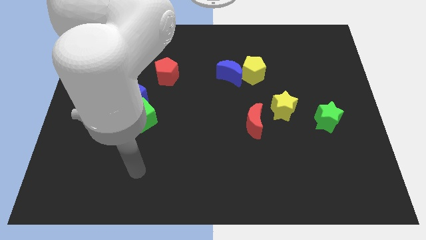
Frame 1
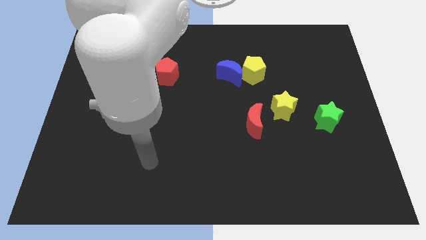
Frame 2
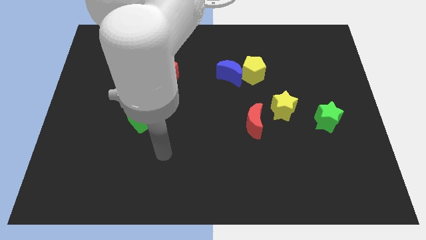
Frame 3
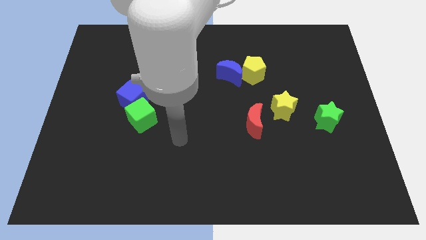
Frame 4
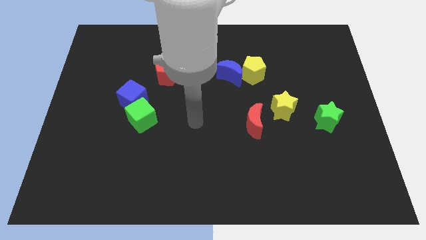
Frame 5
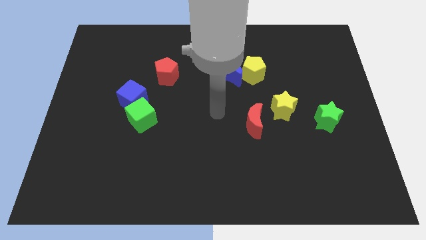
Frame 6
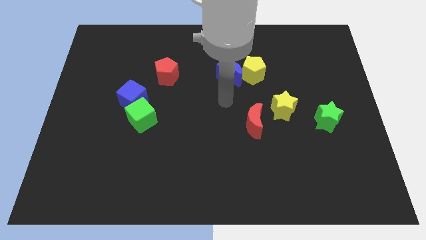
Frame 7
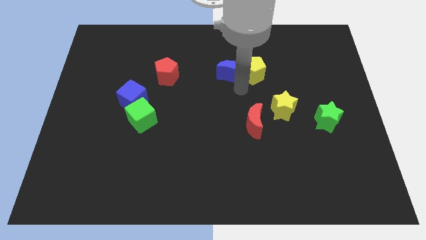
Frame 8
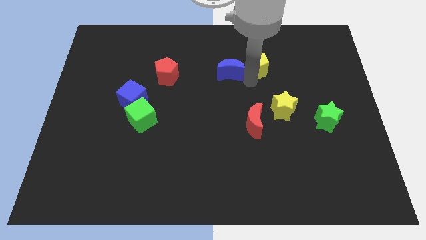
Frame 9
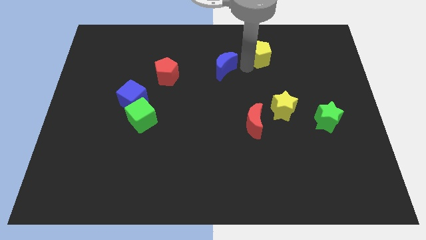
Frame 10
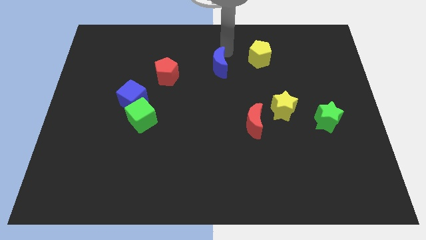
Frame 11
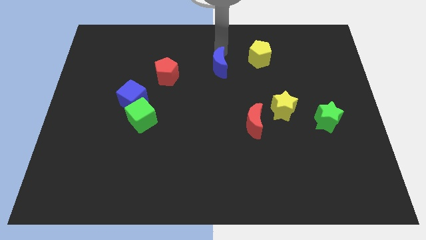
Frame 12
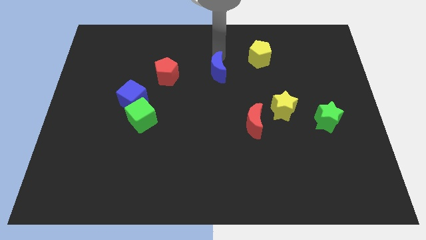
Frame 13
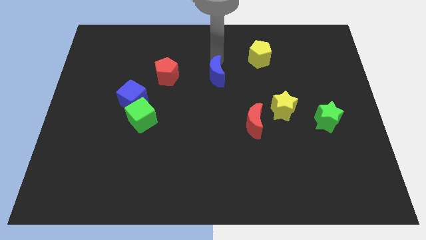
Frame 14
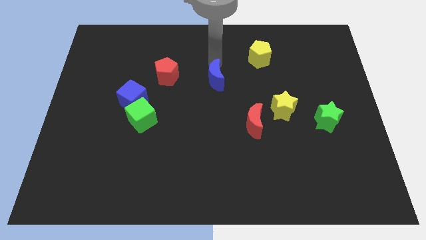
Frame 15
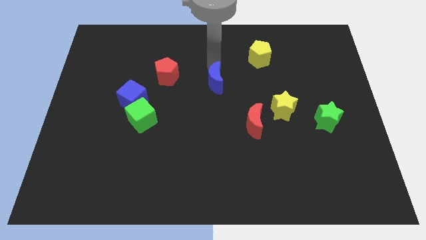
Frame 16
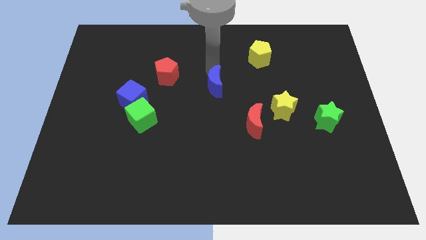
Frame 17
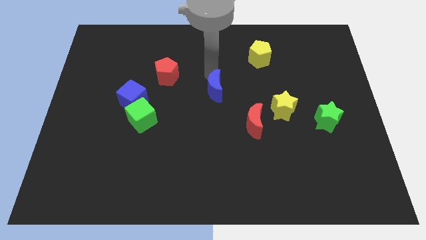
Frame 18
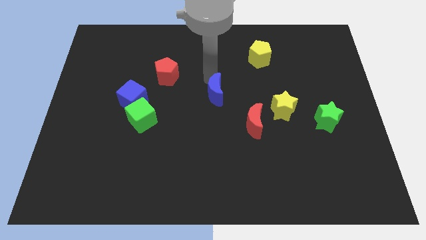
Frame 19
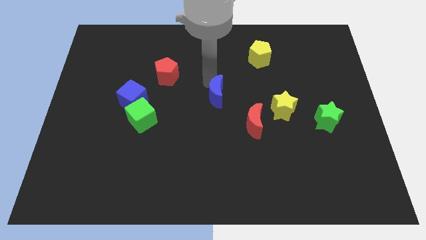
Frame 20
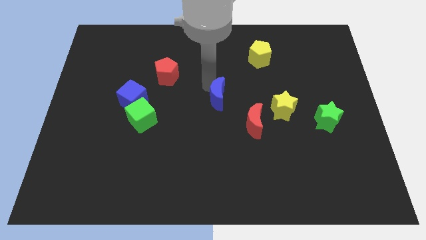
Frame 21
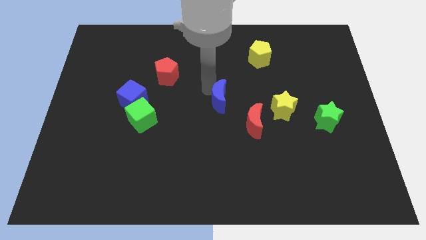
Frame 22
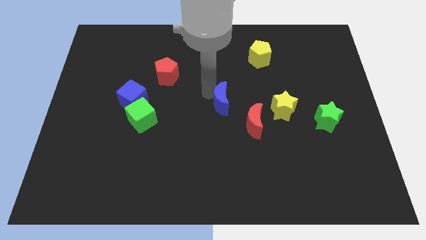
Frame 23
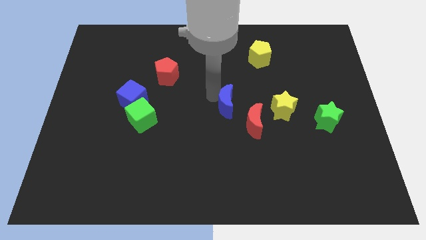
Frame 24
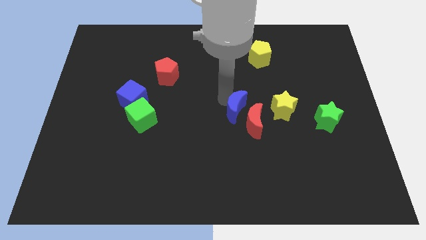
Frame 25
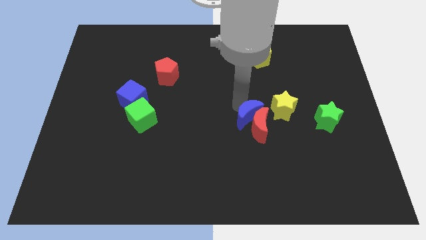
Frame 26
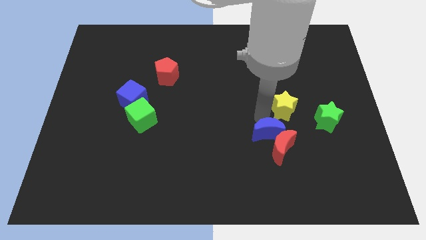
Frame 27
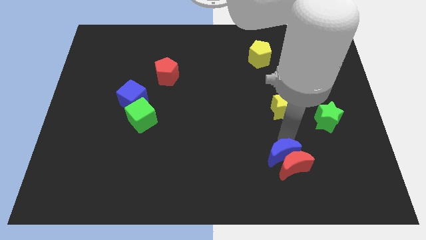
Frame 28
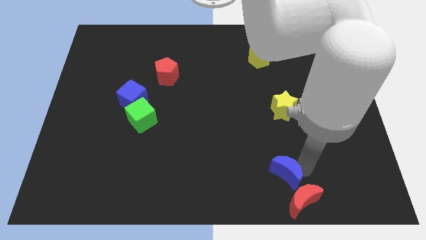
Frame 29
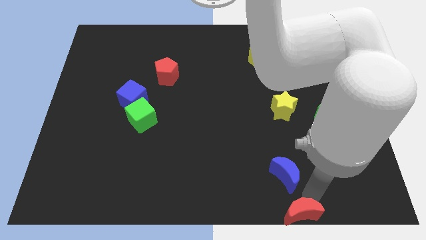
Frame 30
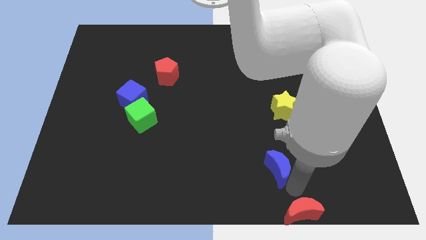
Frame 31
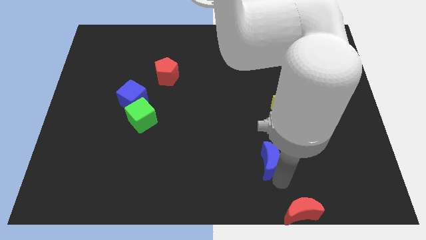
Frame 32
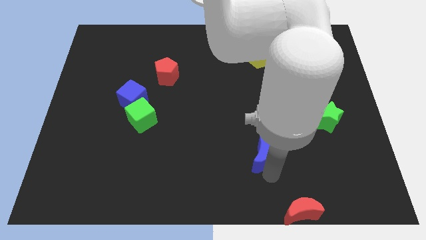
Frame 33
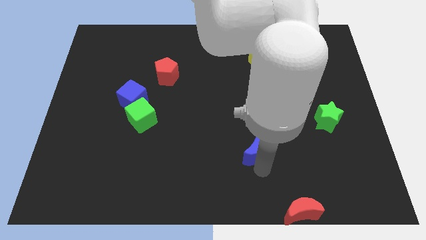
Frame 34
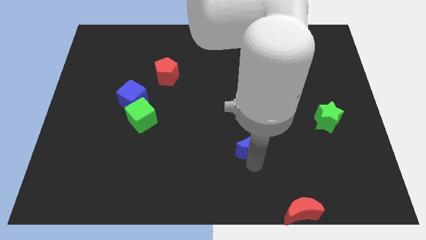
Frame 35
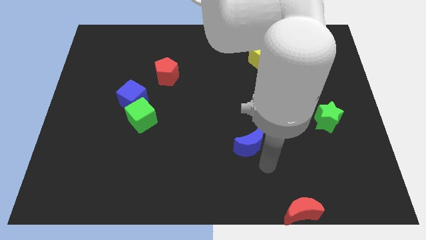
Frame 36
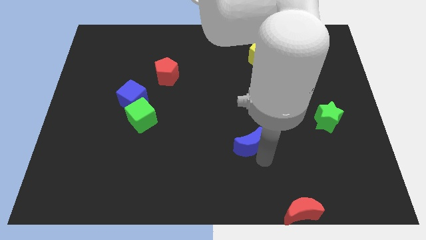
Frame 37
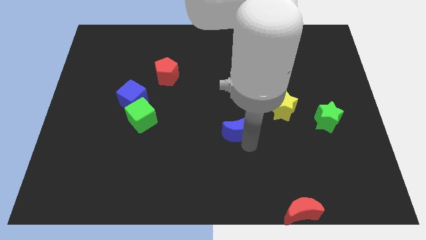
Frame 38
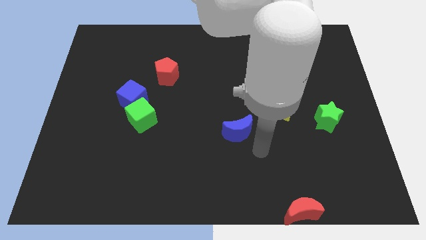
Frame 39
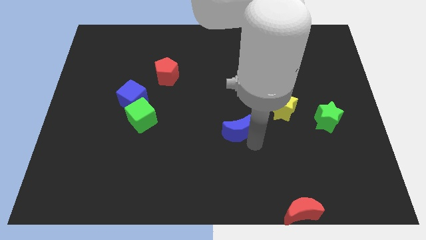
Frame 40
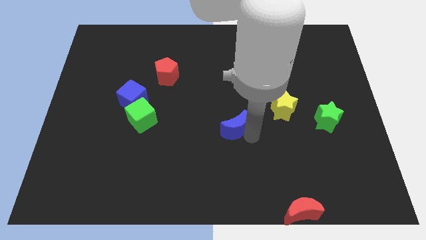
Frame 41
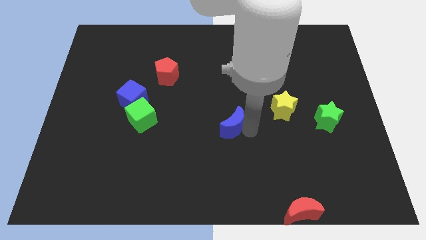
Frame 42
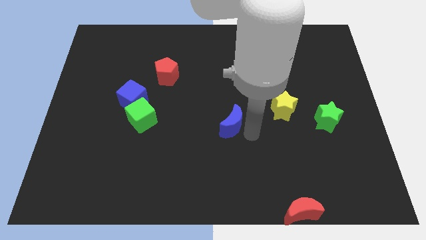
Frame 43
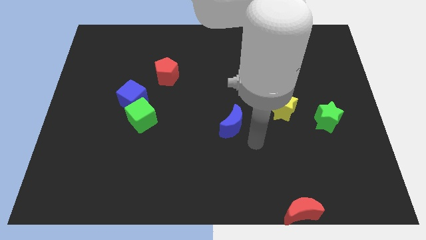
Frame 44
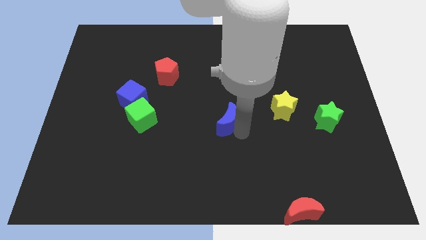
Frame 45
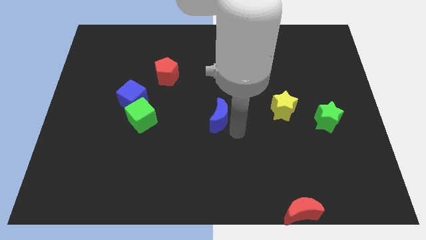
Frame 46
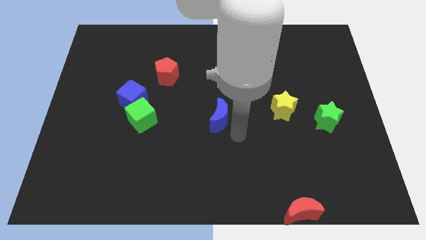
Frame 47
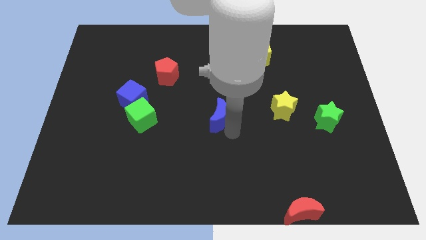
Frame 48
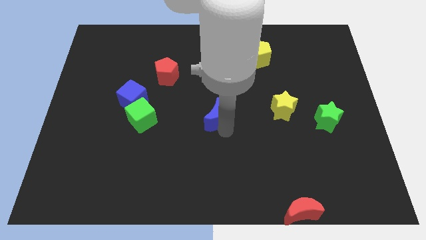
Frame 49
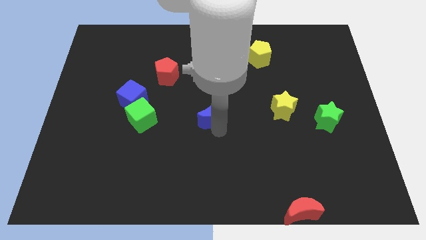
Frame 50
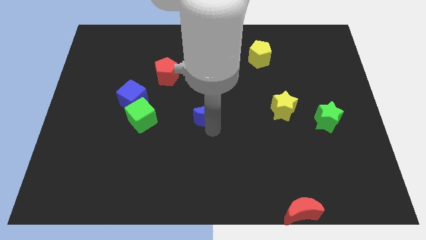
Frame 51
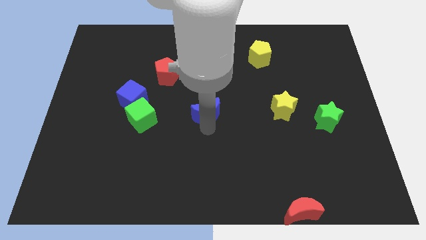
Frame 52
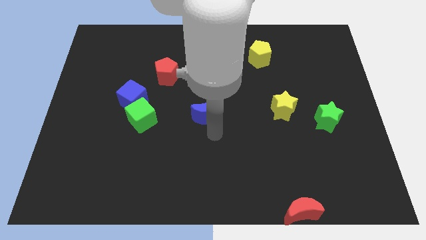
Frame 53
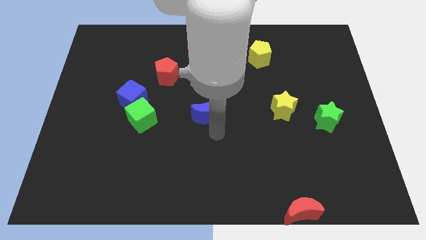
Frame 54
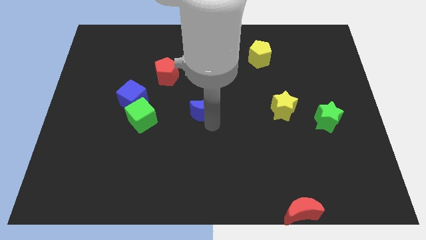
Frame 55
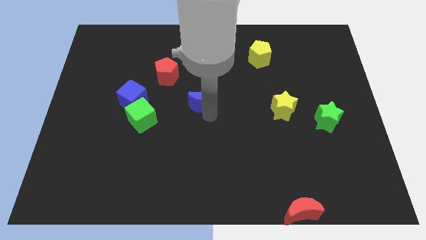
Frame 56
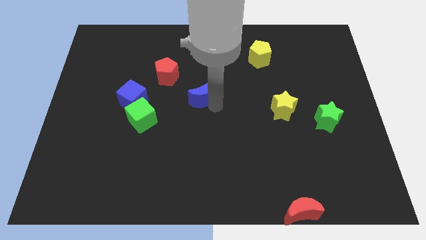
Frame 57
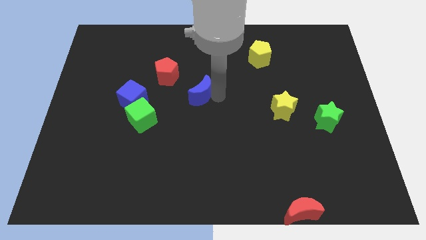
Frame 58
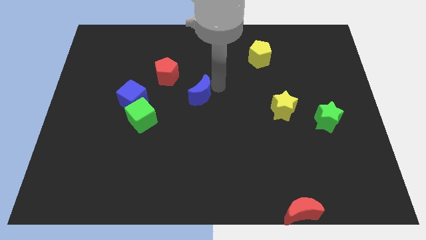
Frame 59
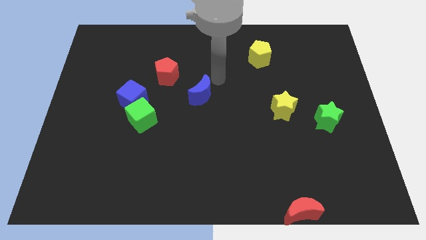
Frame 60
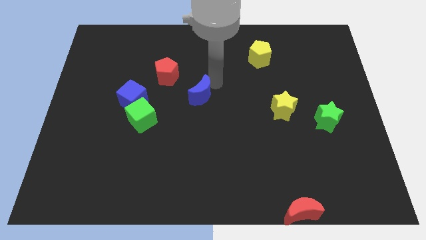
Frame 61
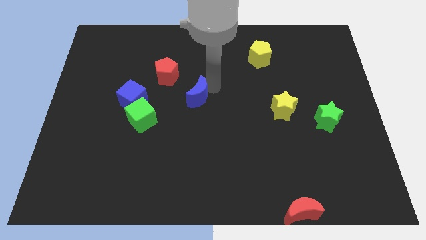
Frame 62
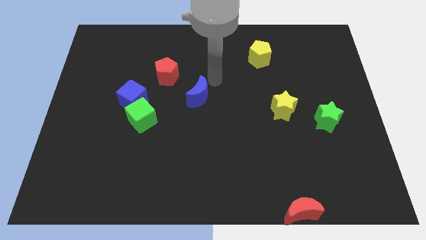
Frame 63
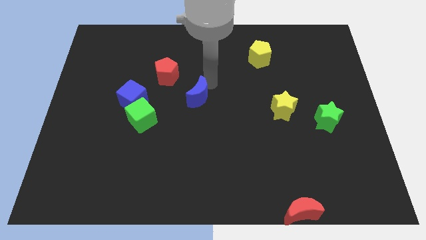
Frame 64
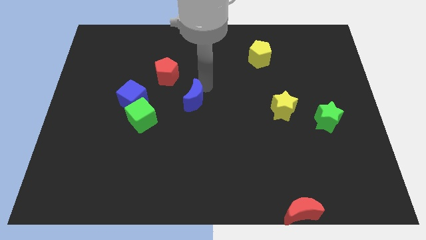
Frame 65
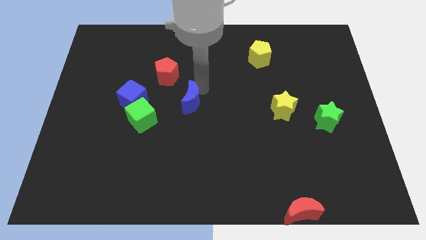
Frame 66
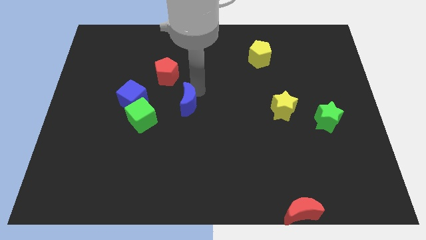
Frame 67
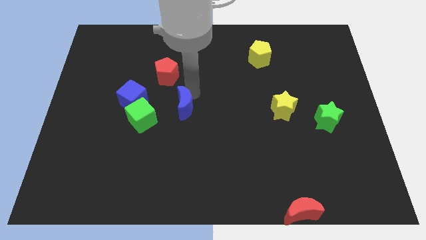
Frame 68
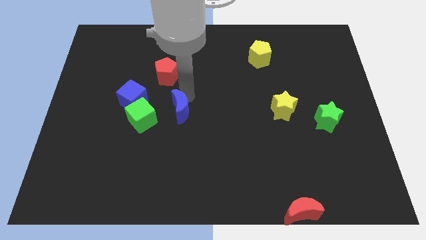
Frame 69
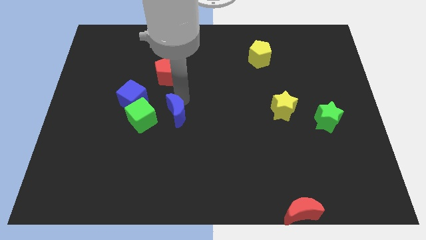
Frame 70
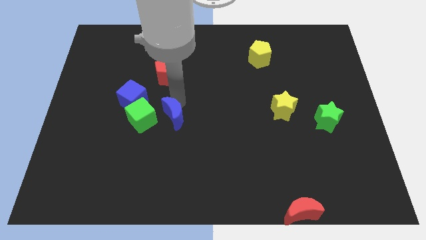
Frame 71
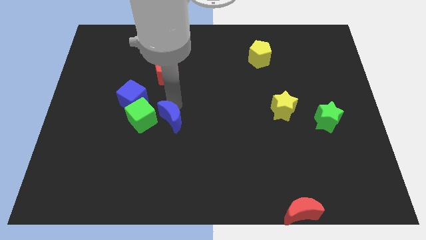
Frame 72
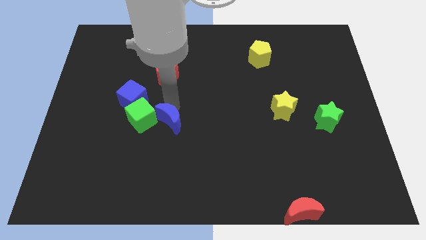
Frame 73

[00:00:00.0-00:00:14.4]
move the blue moon down and then left

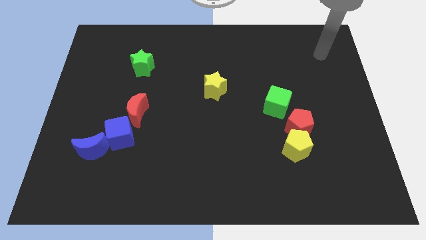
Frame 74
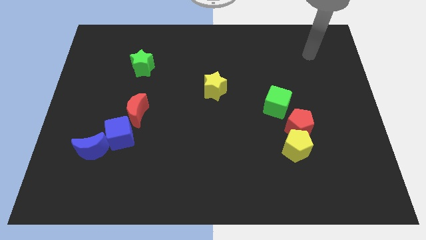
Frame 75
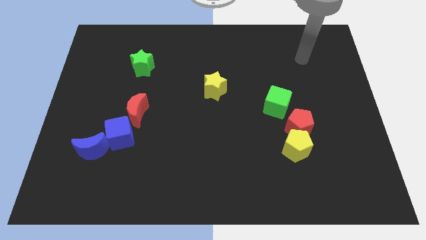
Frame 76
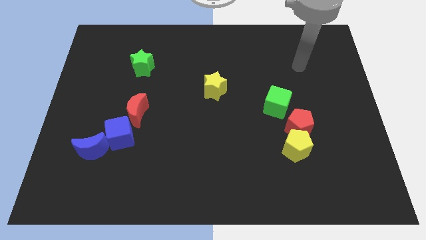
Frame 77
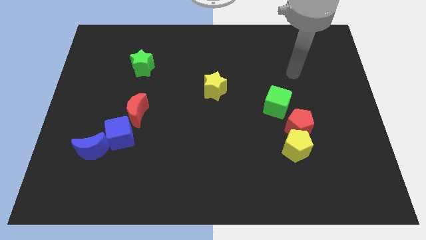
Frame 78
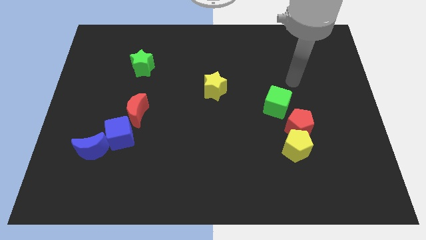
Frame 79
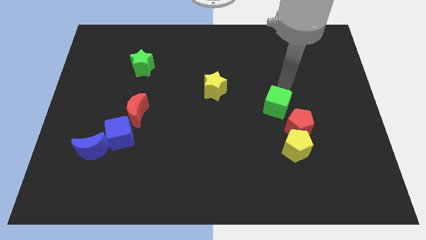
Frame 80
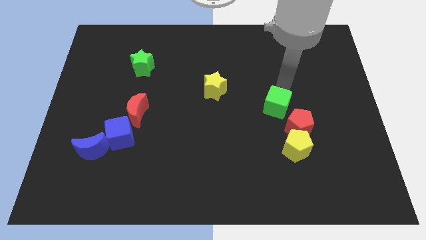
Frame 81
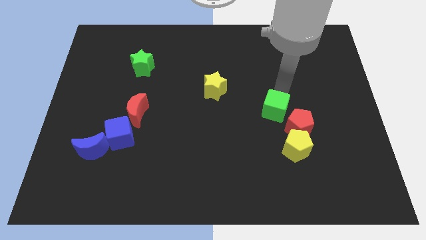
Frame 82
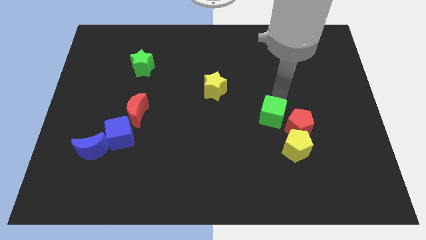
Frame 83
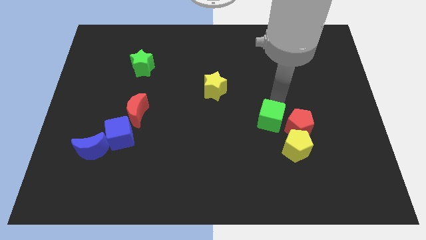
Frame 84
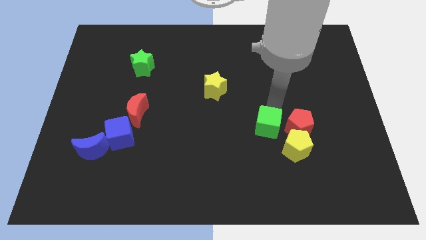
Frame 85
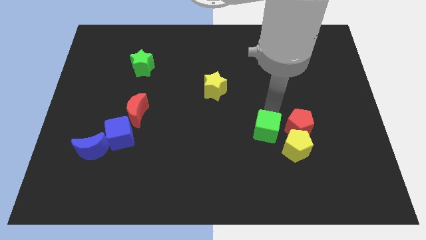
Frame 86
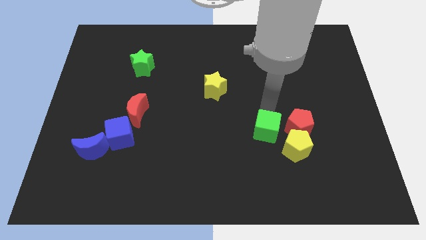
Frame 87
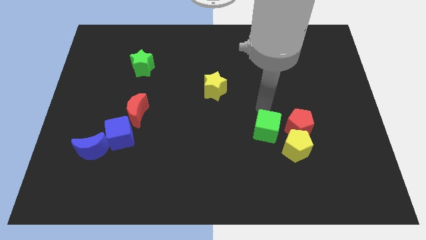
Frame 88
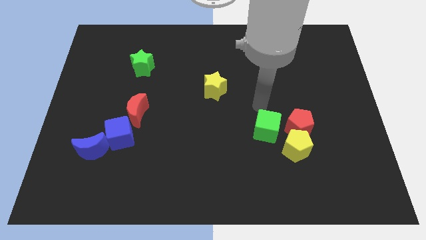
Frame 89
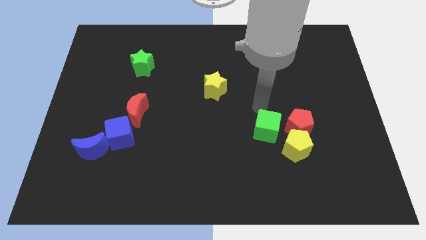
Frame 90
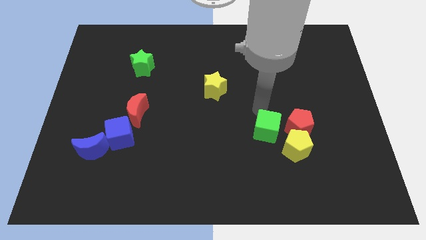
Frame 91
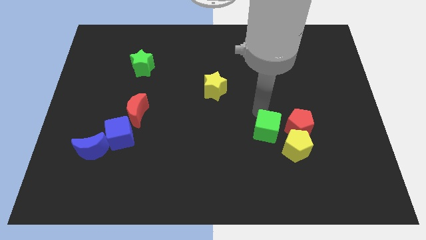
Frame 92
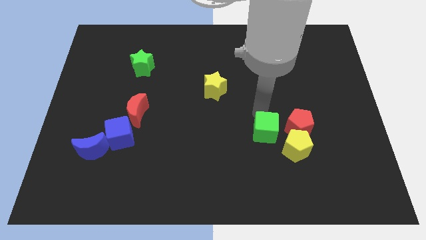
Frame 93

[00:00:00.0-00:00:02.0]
slightly push the green cube downwards
